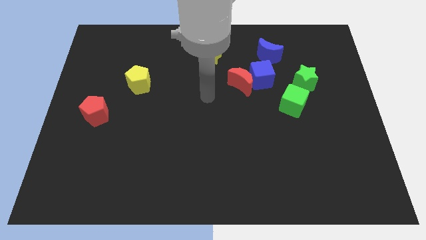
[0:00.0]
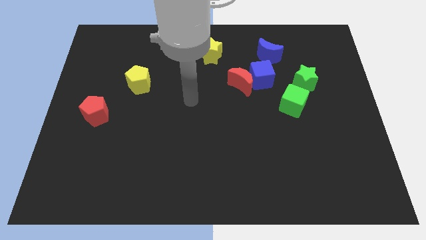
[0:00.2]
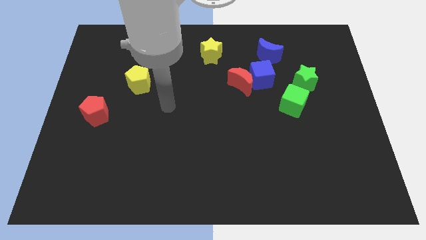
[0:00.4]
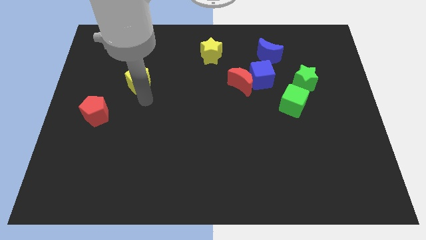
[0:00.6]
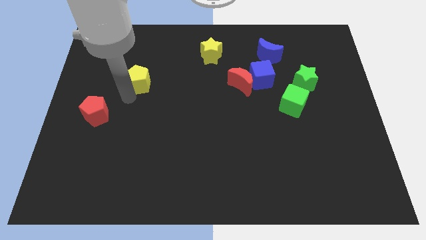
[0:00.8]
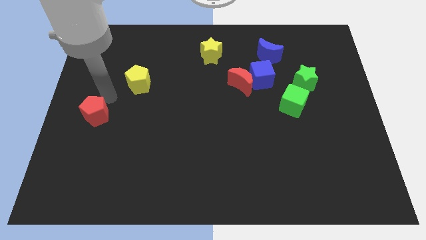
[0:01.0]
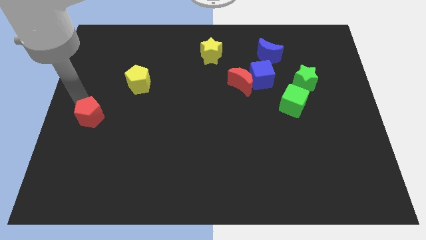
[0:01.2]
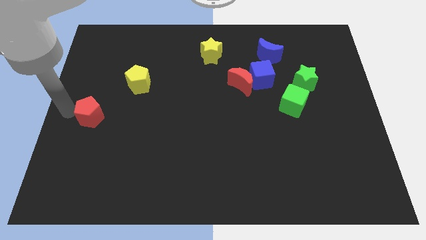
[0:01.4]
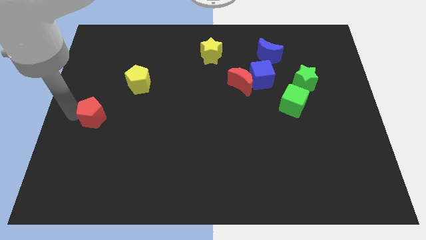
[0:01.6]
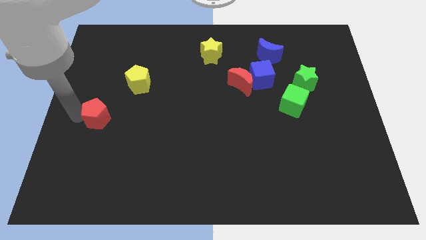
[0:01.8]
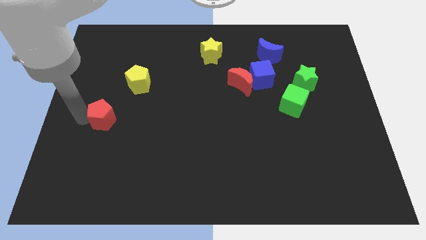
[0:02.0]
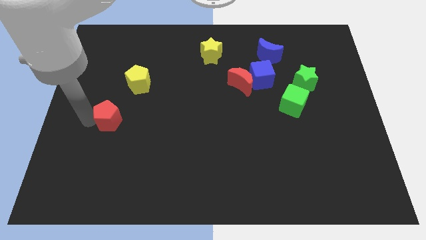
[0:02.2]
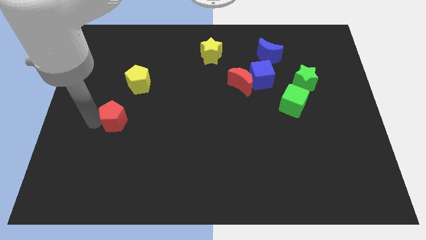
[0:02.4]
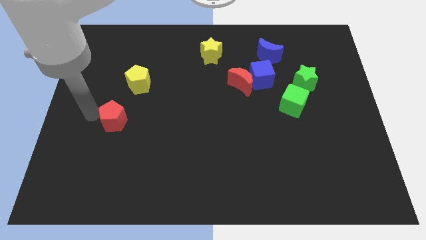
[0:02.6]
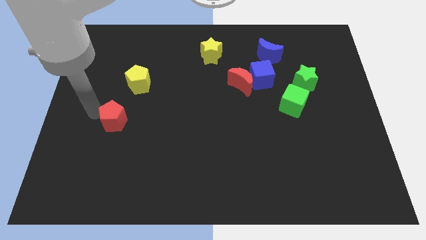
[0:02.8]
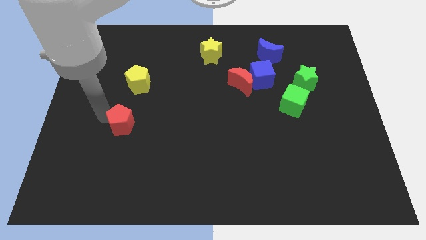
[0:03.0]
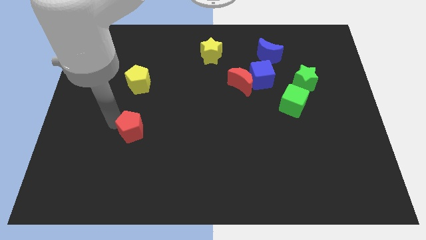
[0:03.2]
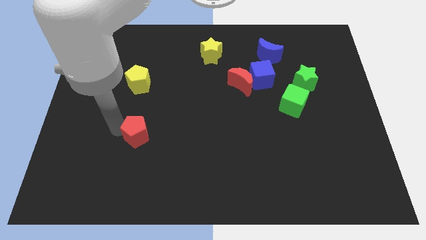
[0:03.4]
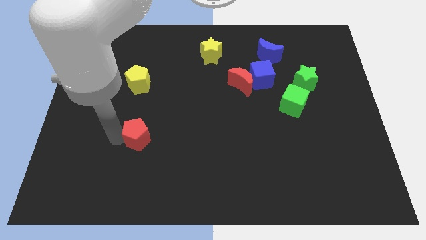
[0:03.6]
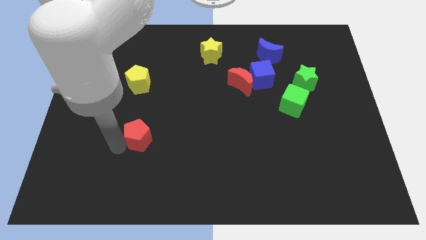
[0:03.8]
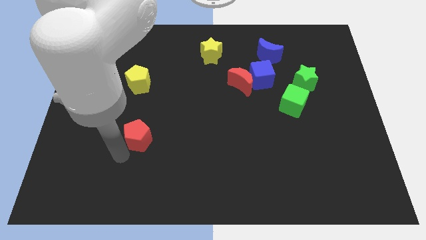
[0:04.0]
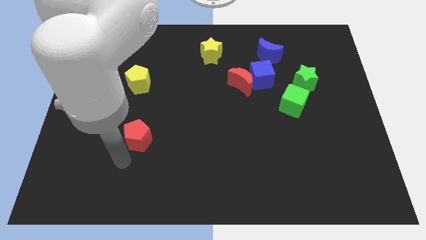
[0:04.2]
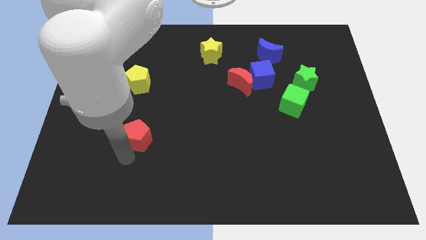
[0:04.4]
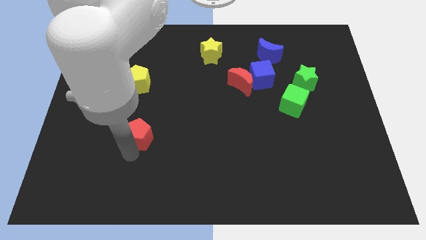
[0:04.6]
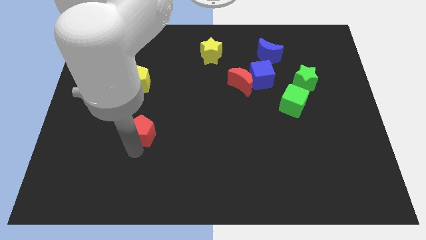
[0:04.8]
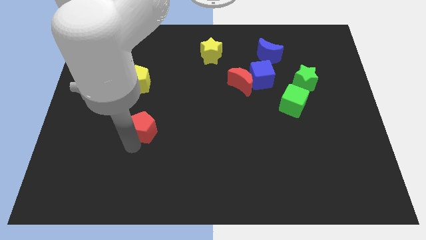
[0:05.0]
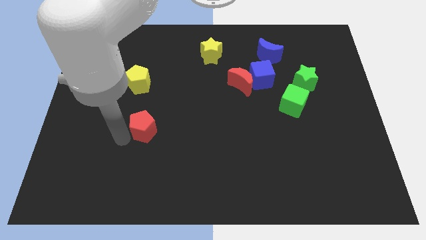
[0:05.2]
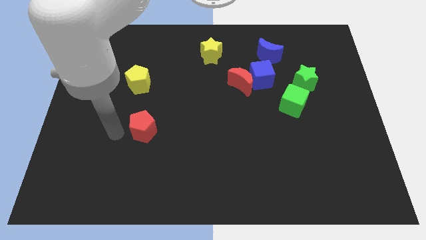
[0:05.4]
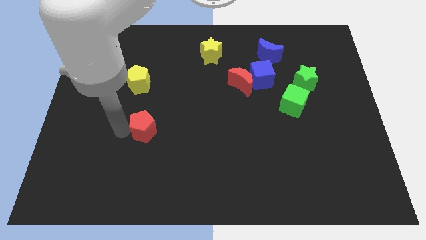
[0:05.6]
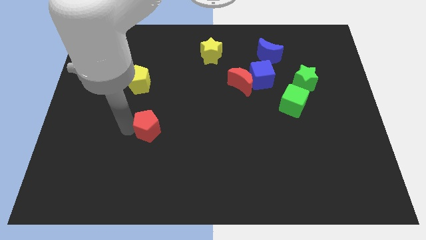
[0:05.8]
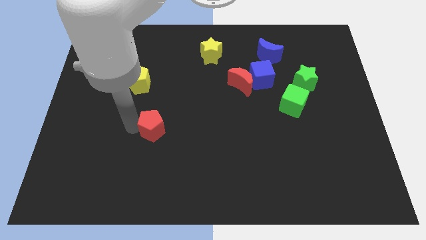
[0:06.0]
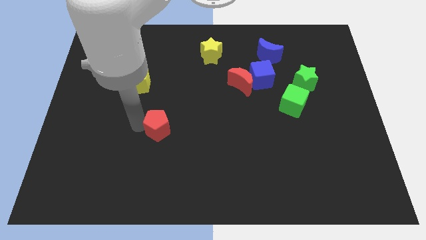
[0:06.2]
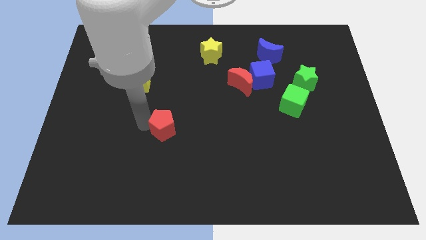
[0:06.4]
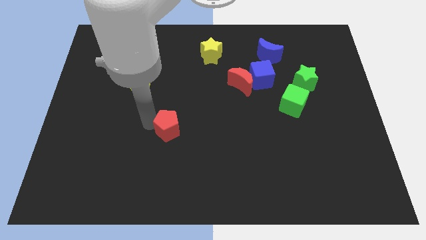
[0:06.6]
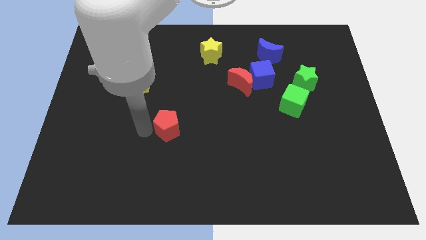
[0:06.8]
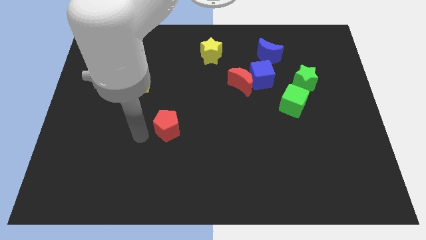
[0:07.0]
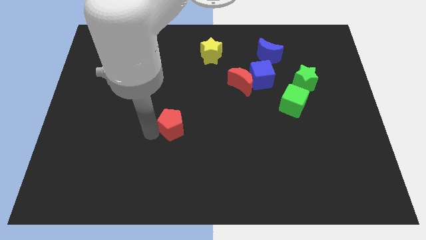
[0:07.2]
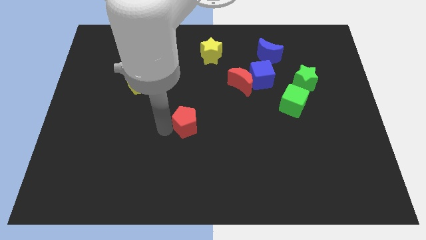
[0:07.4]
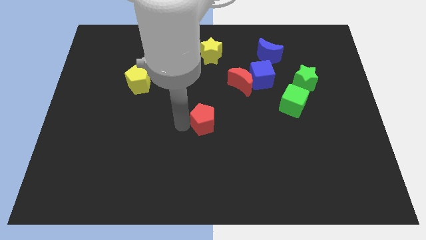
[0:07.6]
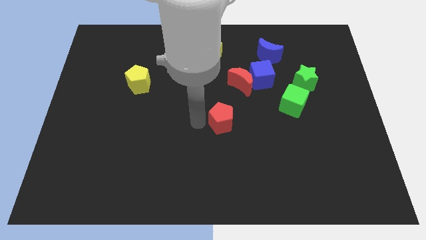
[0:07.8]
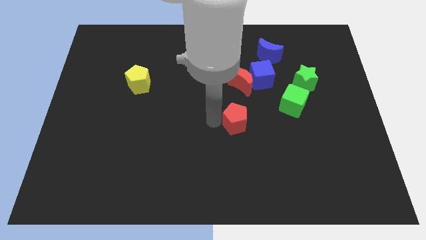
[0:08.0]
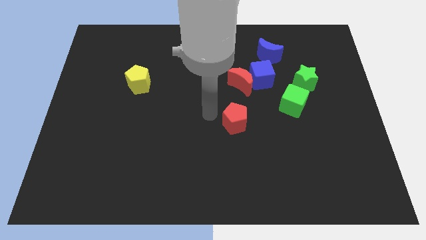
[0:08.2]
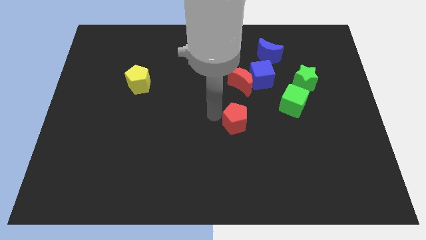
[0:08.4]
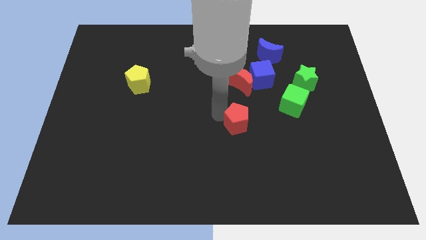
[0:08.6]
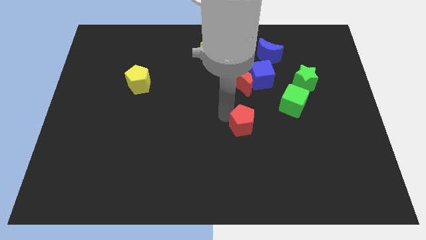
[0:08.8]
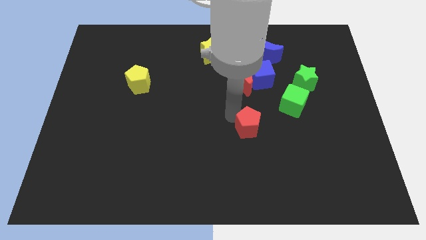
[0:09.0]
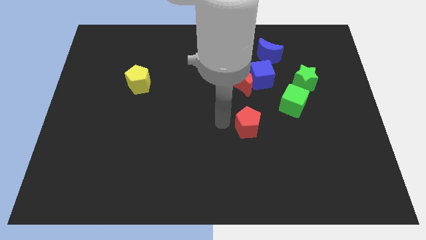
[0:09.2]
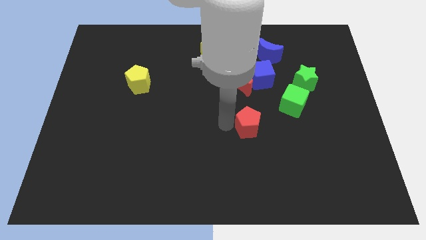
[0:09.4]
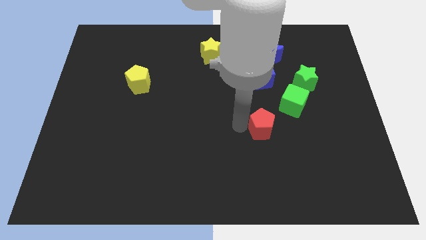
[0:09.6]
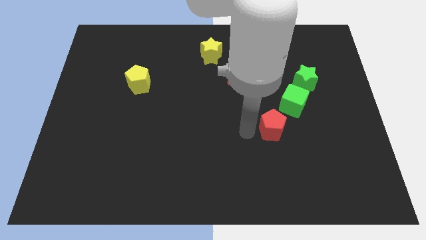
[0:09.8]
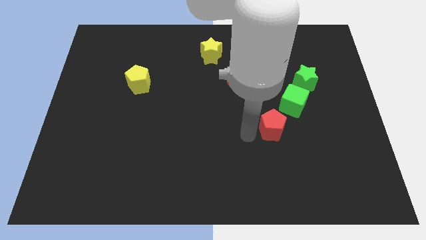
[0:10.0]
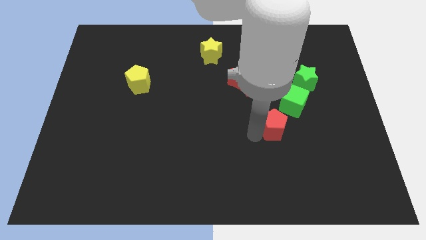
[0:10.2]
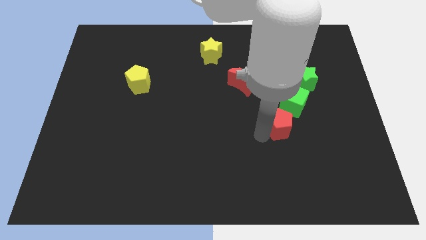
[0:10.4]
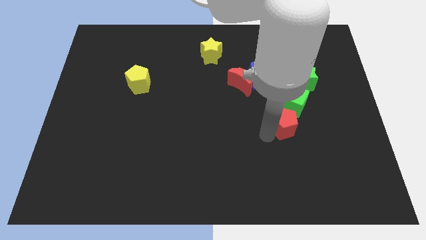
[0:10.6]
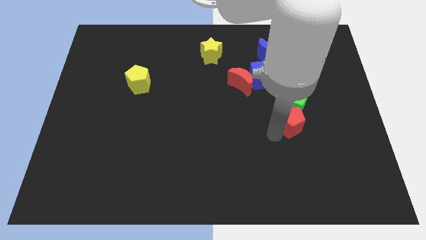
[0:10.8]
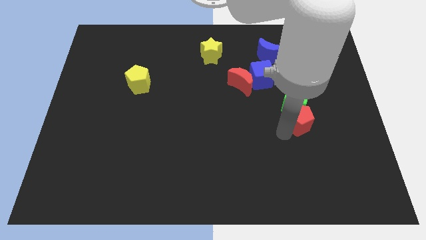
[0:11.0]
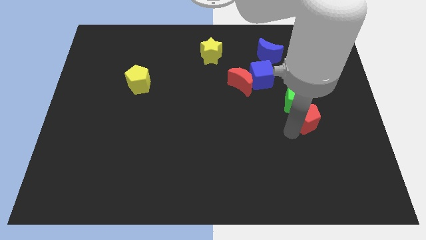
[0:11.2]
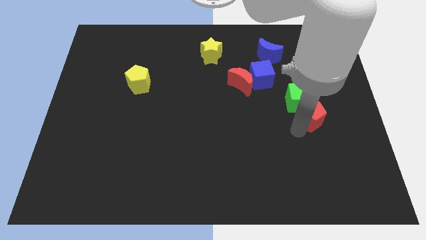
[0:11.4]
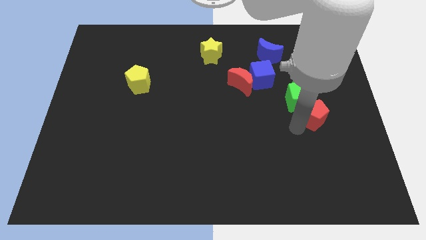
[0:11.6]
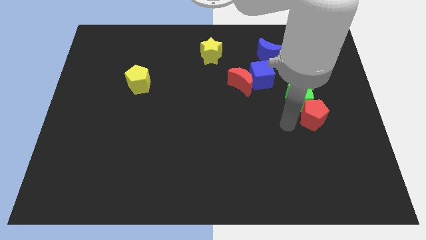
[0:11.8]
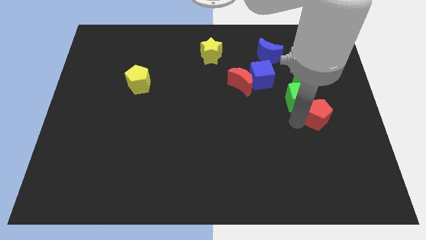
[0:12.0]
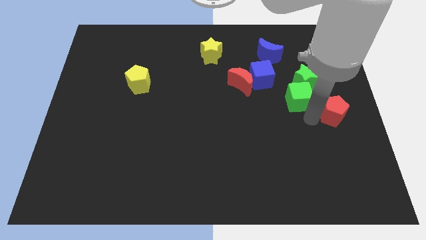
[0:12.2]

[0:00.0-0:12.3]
push the red pentagon to the right side
